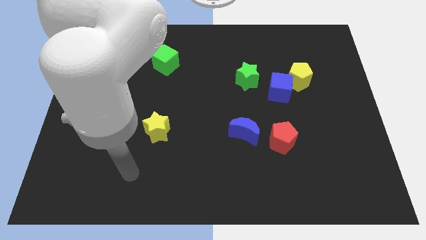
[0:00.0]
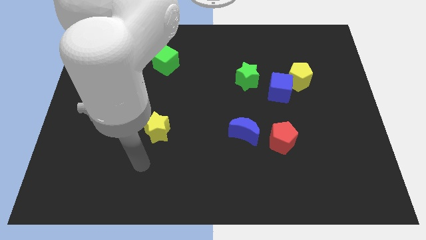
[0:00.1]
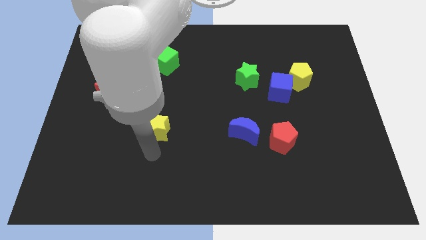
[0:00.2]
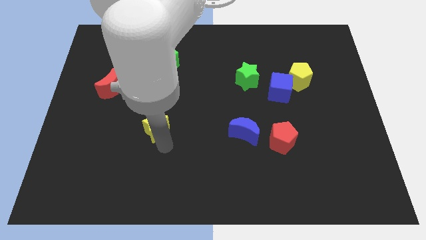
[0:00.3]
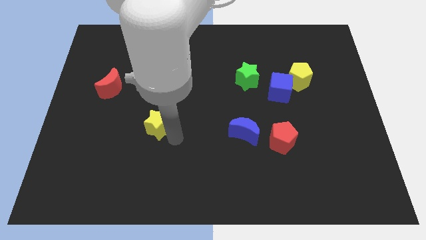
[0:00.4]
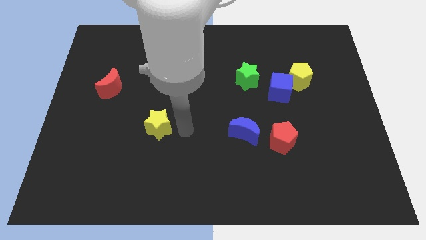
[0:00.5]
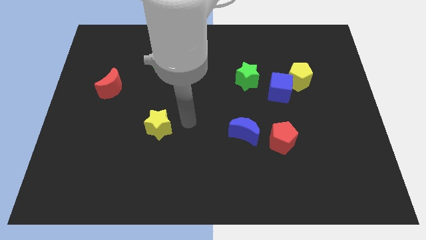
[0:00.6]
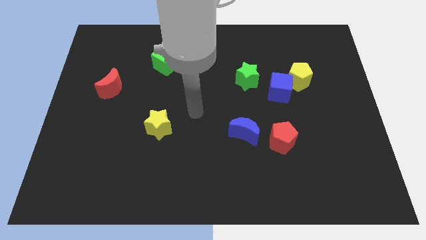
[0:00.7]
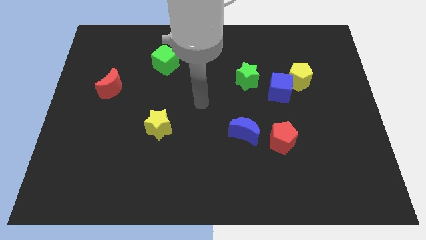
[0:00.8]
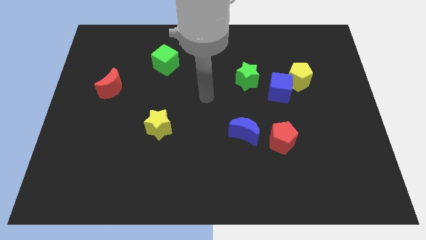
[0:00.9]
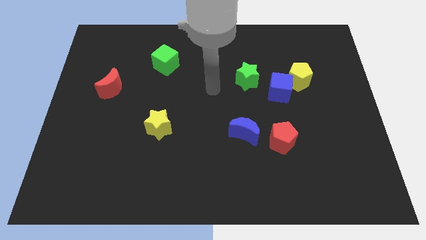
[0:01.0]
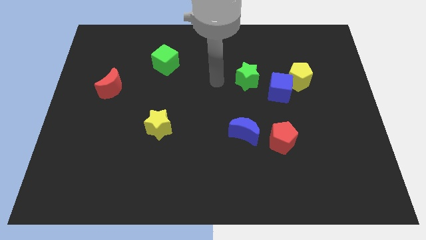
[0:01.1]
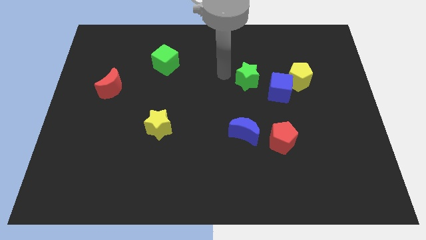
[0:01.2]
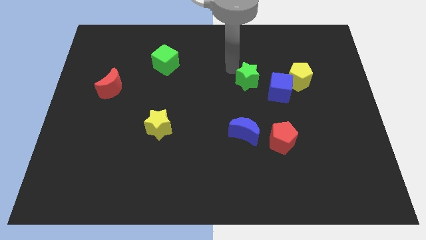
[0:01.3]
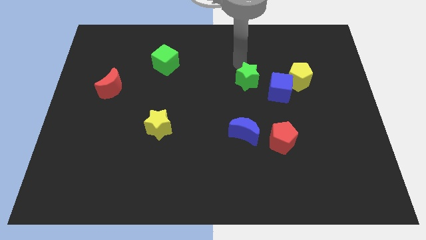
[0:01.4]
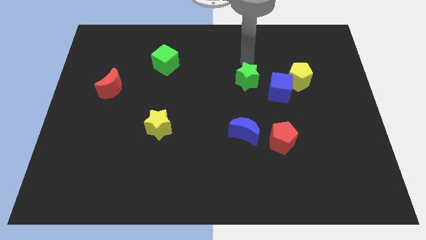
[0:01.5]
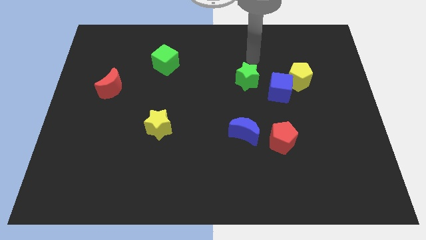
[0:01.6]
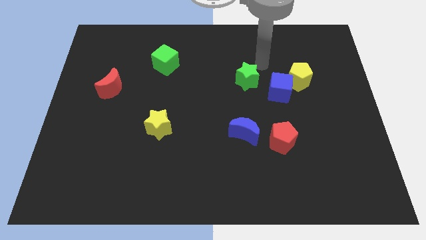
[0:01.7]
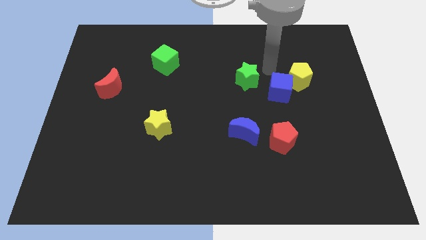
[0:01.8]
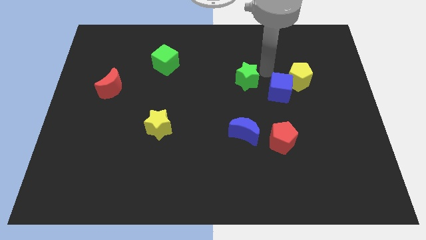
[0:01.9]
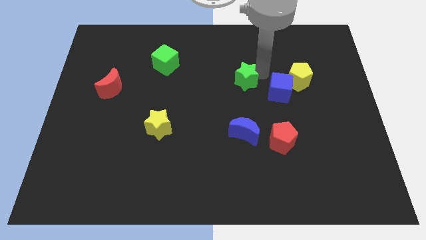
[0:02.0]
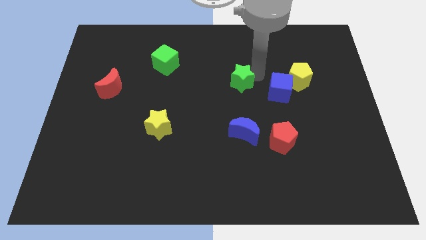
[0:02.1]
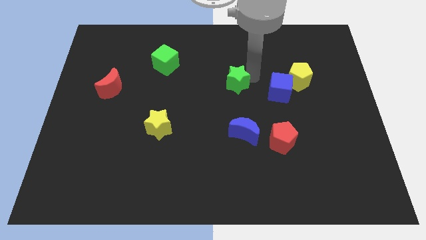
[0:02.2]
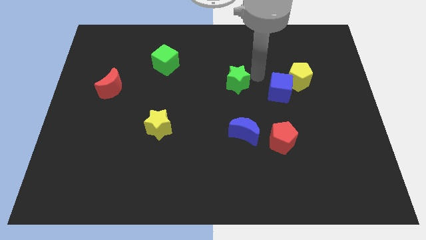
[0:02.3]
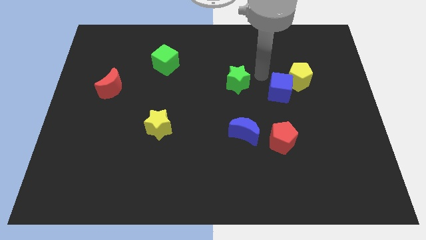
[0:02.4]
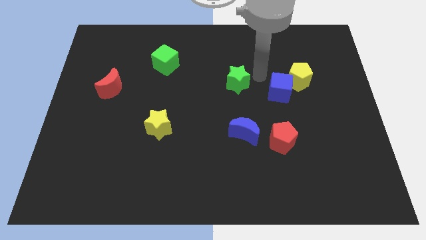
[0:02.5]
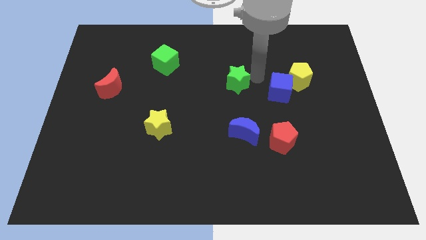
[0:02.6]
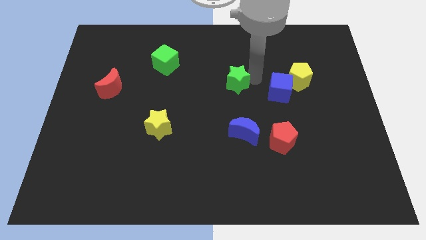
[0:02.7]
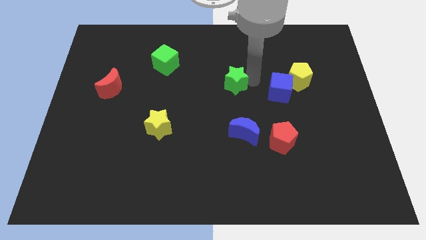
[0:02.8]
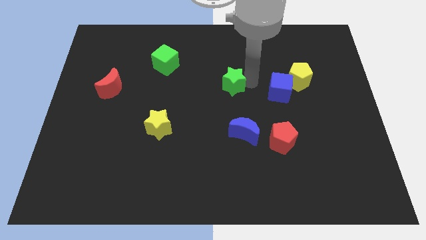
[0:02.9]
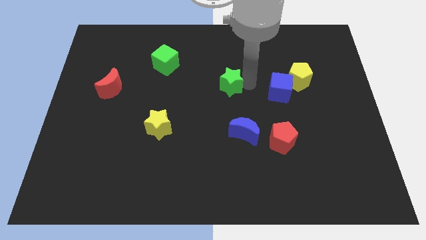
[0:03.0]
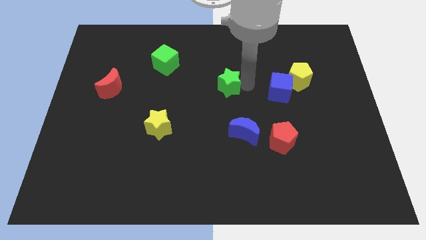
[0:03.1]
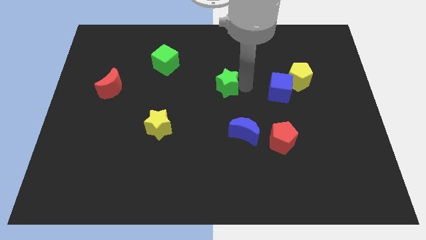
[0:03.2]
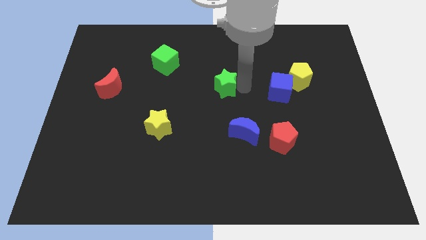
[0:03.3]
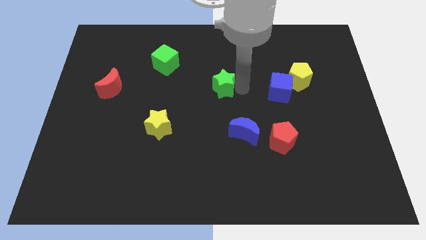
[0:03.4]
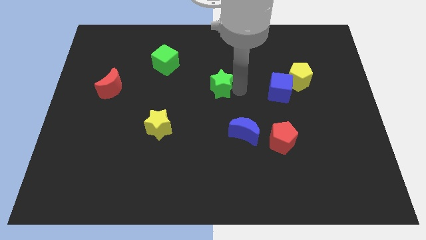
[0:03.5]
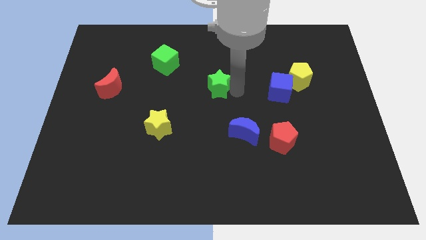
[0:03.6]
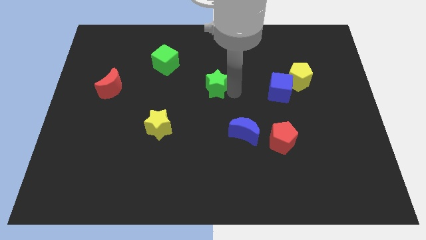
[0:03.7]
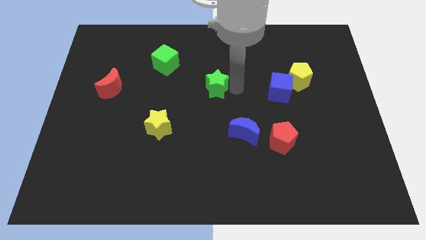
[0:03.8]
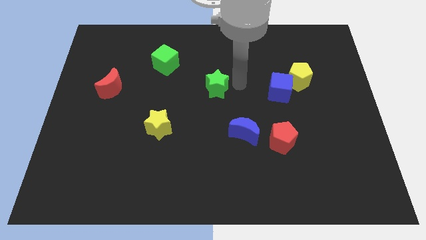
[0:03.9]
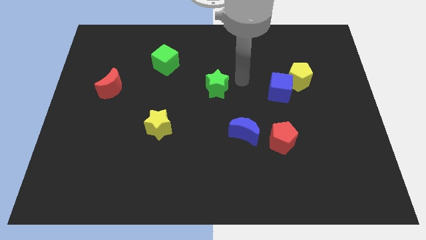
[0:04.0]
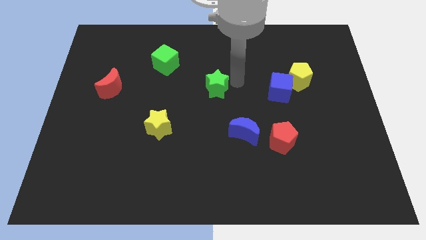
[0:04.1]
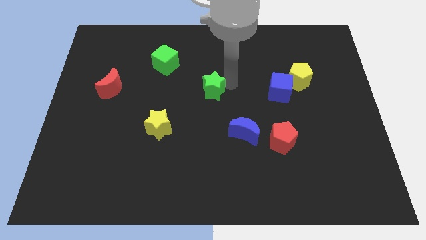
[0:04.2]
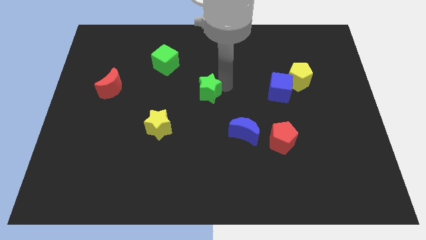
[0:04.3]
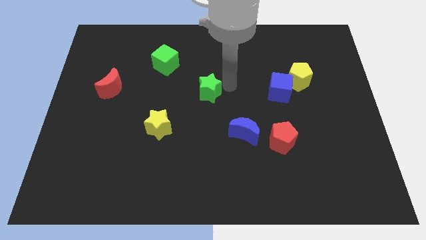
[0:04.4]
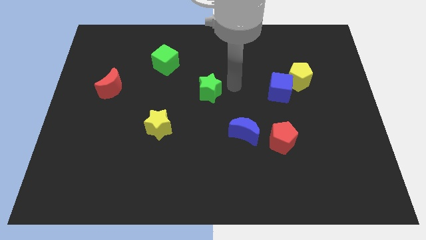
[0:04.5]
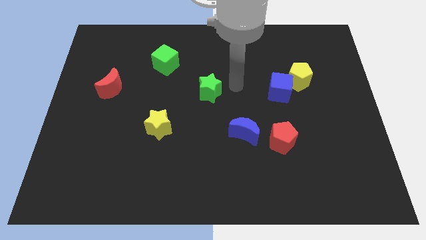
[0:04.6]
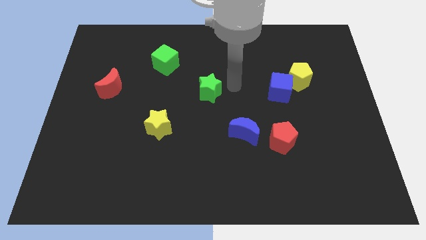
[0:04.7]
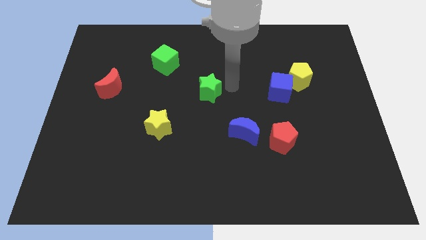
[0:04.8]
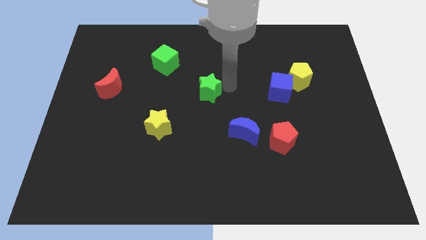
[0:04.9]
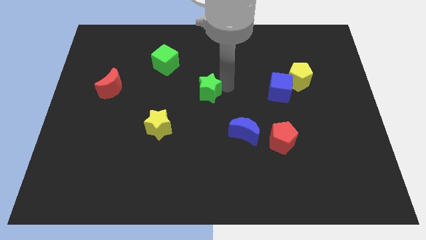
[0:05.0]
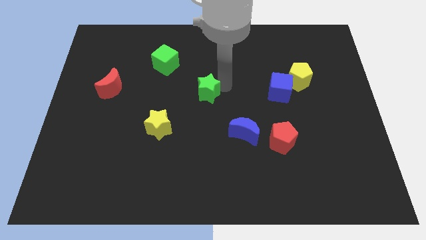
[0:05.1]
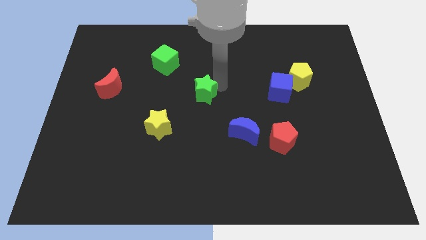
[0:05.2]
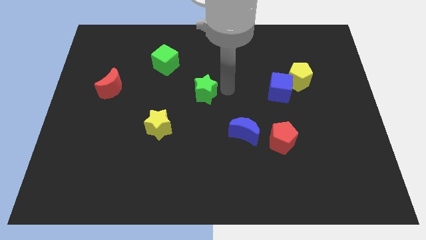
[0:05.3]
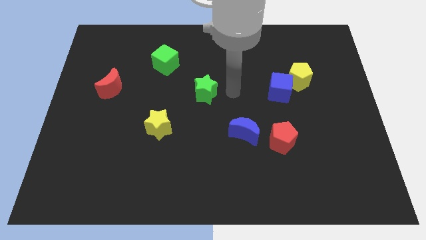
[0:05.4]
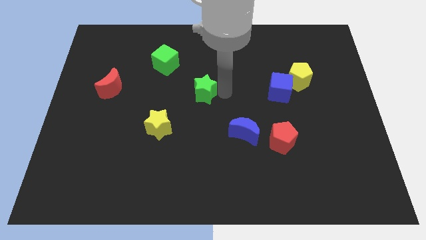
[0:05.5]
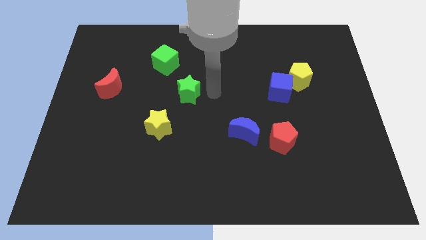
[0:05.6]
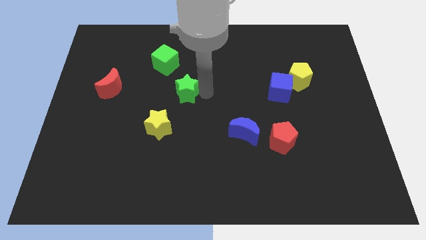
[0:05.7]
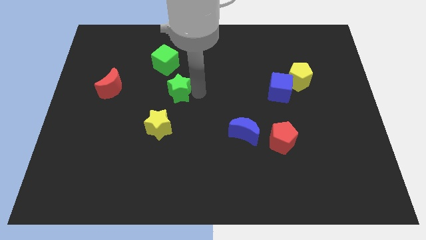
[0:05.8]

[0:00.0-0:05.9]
move the green star to the bottom of the green cube

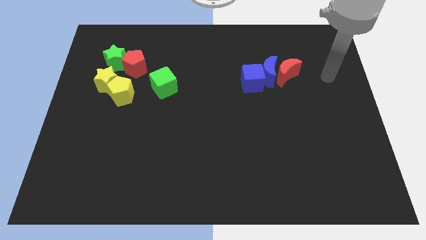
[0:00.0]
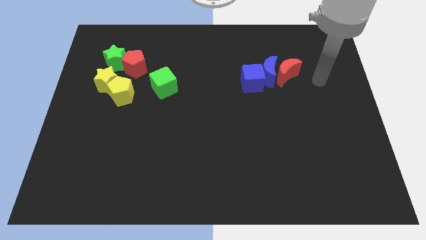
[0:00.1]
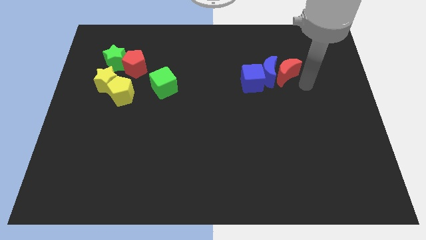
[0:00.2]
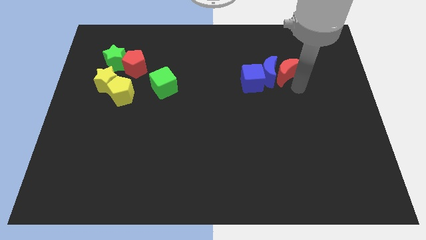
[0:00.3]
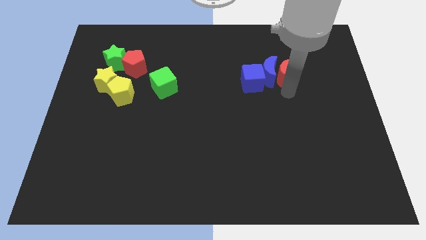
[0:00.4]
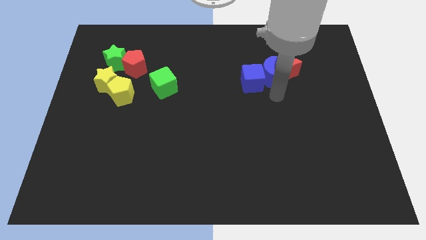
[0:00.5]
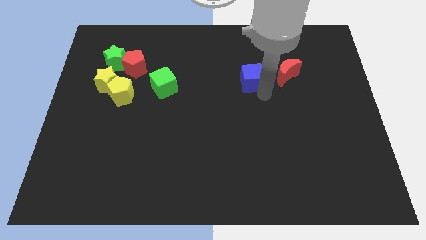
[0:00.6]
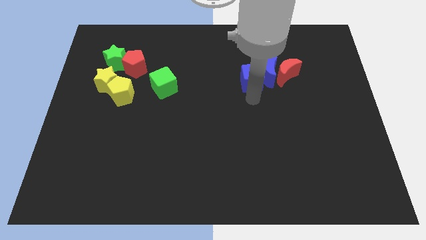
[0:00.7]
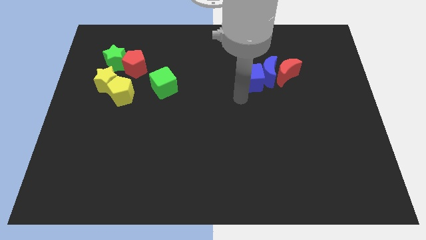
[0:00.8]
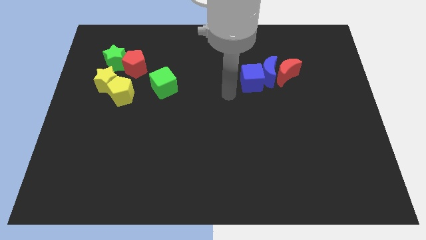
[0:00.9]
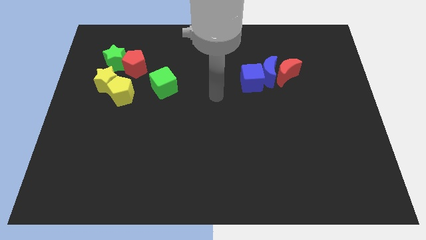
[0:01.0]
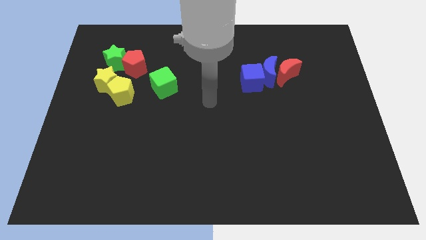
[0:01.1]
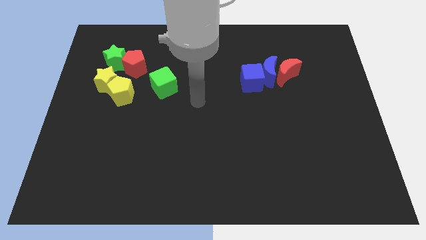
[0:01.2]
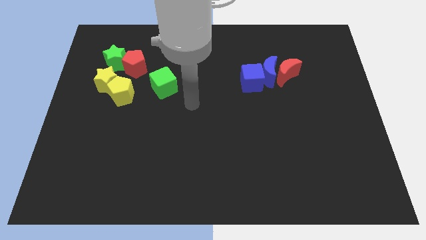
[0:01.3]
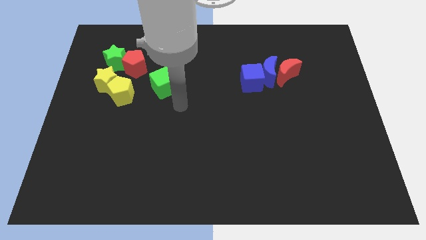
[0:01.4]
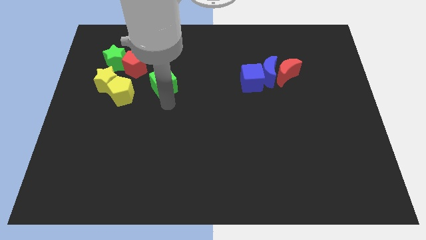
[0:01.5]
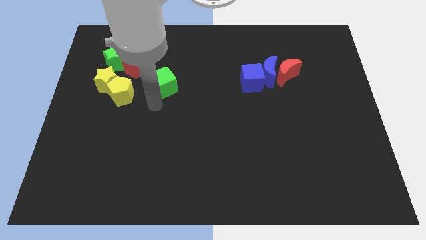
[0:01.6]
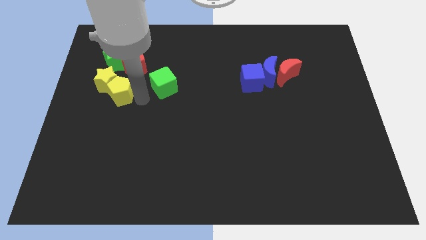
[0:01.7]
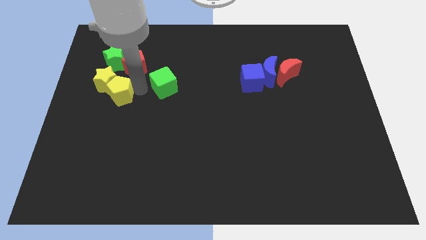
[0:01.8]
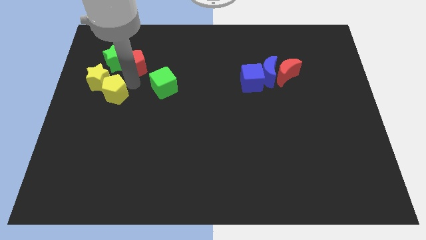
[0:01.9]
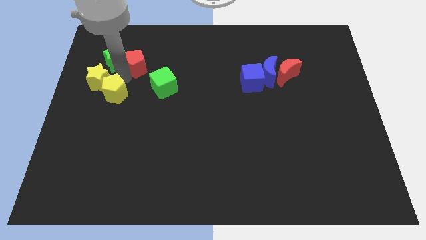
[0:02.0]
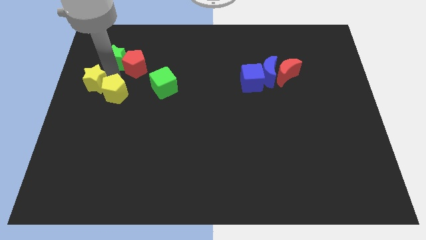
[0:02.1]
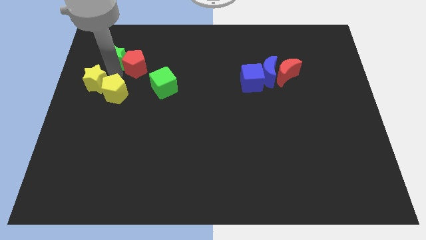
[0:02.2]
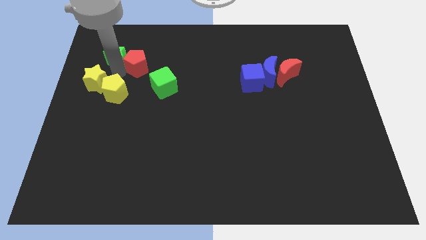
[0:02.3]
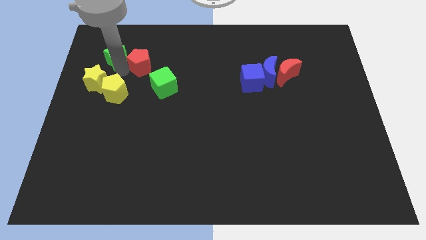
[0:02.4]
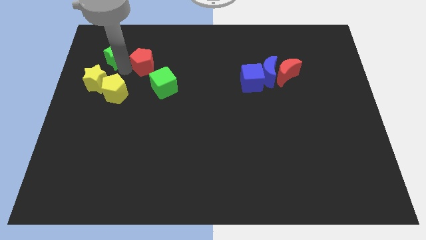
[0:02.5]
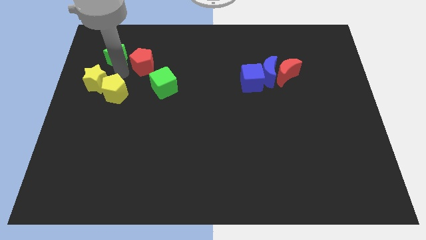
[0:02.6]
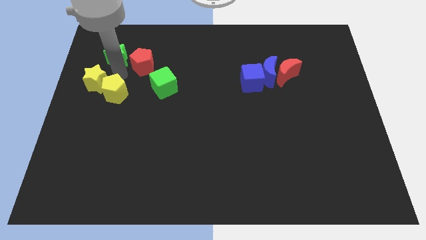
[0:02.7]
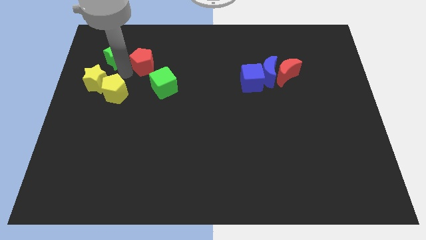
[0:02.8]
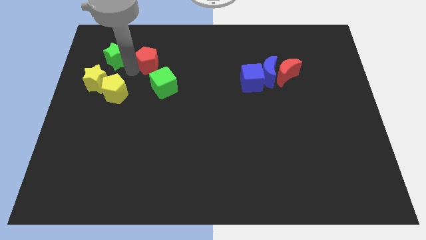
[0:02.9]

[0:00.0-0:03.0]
push the red pentagon to the top side of the green cube
